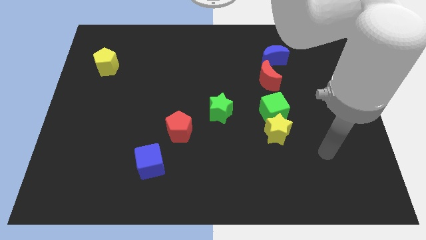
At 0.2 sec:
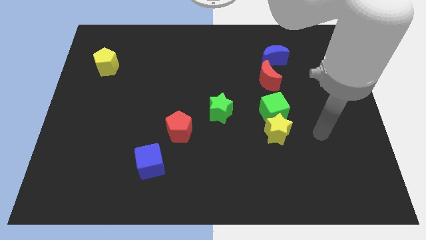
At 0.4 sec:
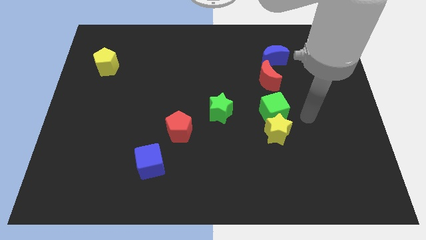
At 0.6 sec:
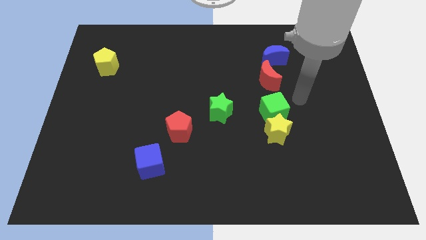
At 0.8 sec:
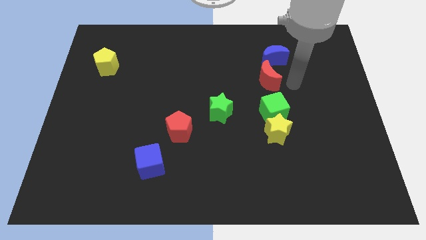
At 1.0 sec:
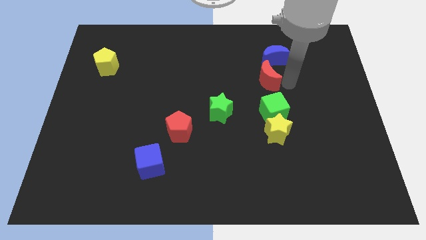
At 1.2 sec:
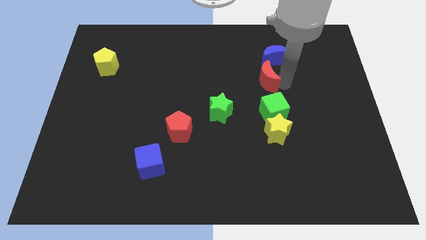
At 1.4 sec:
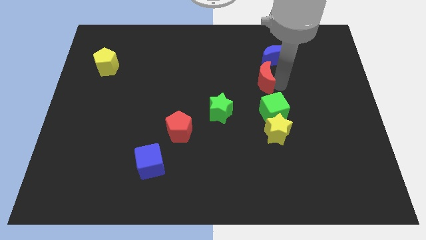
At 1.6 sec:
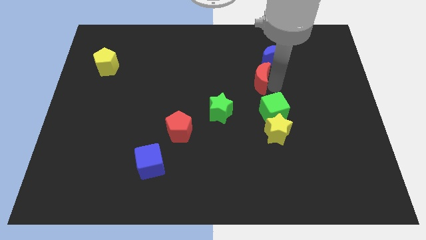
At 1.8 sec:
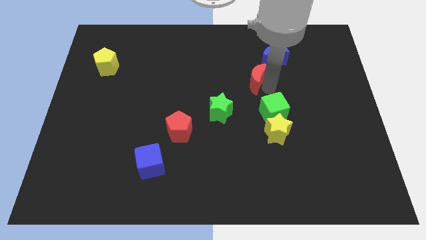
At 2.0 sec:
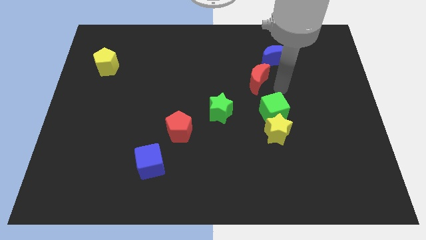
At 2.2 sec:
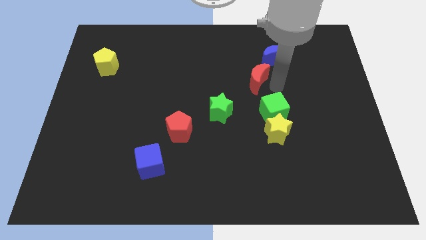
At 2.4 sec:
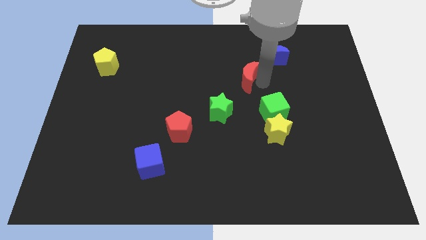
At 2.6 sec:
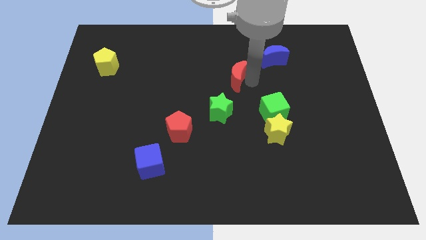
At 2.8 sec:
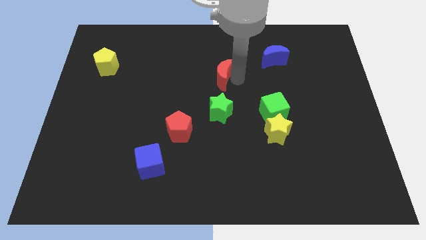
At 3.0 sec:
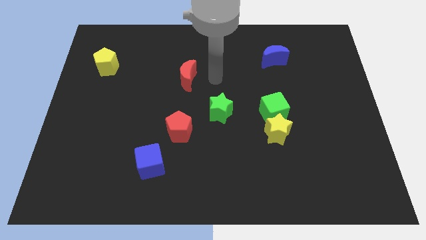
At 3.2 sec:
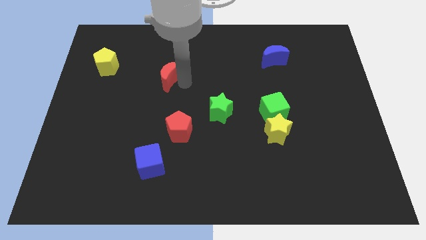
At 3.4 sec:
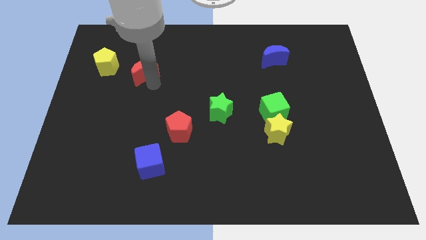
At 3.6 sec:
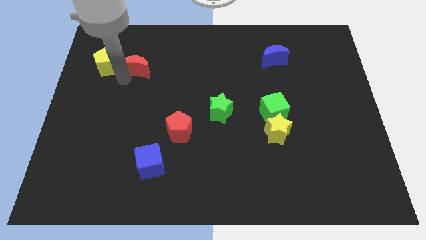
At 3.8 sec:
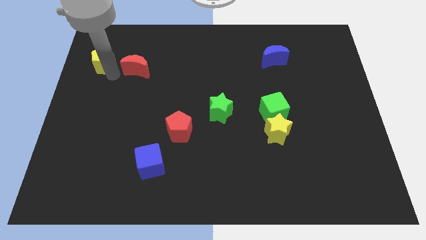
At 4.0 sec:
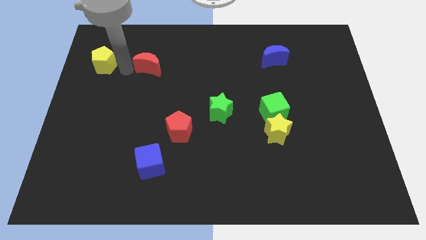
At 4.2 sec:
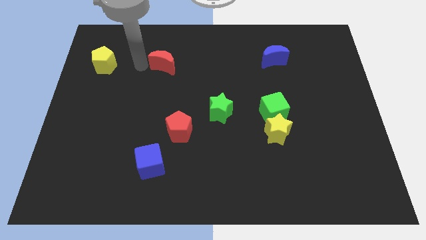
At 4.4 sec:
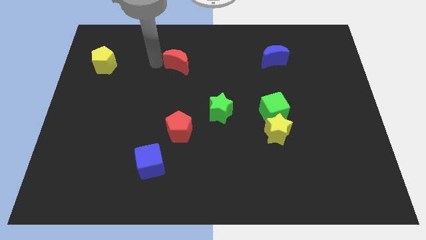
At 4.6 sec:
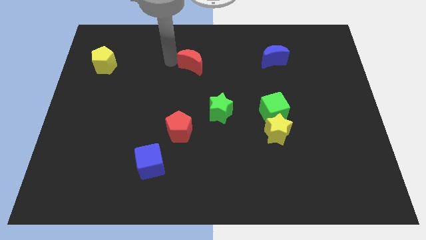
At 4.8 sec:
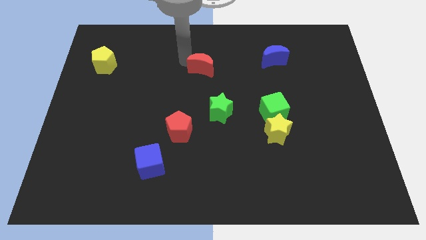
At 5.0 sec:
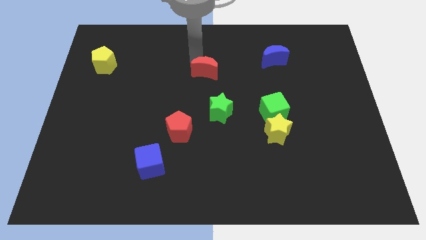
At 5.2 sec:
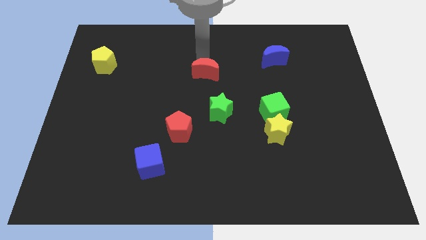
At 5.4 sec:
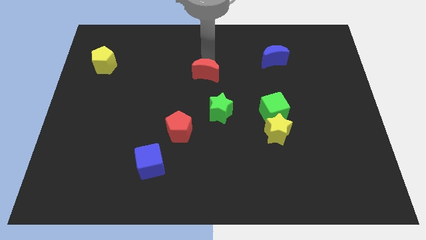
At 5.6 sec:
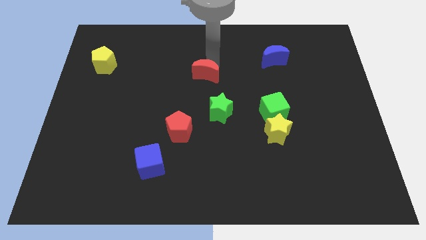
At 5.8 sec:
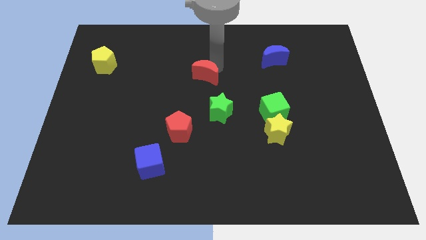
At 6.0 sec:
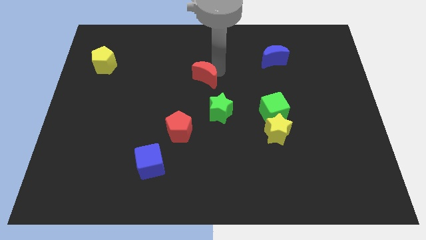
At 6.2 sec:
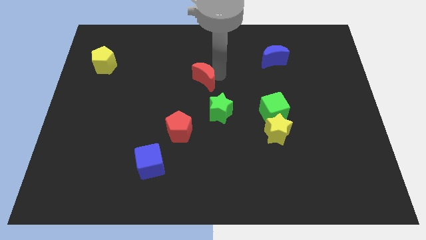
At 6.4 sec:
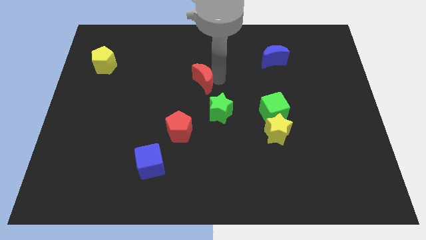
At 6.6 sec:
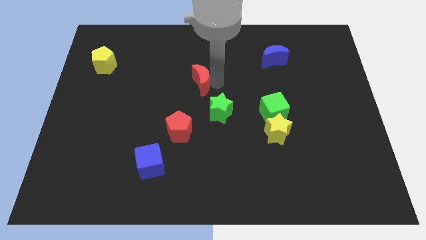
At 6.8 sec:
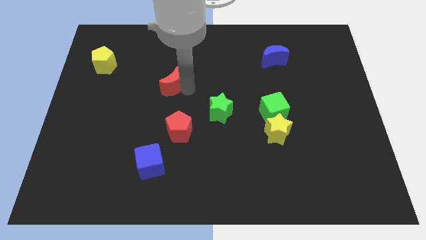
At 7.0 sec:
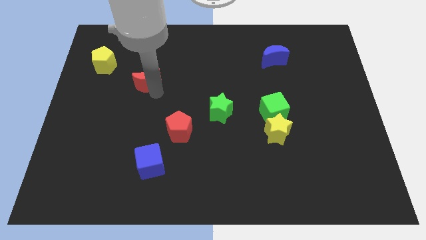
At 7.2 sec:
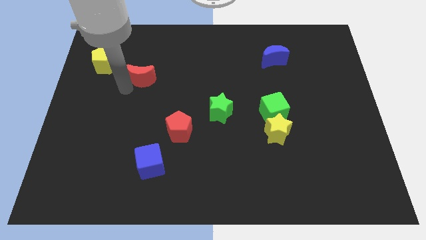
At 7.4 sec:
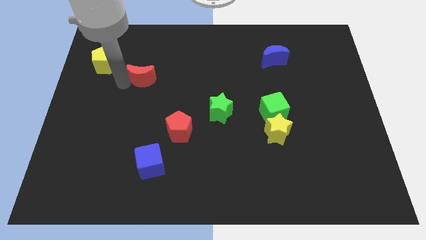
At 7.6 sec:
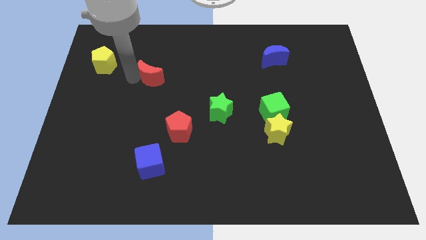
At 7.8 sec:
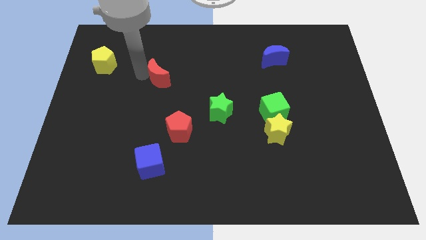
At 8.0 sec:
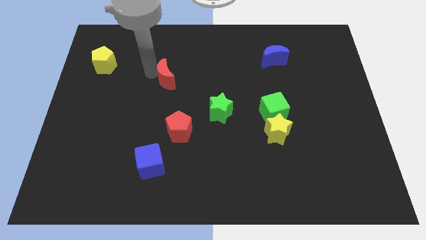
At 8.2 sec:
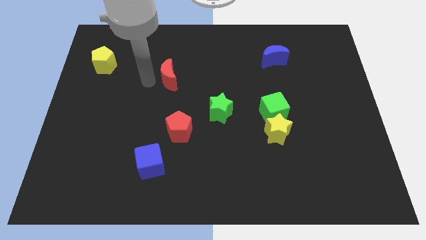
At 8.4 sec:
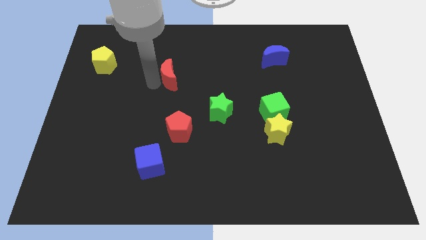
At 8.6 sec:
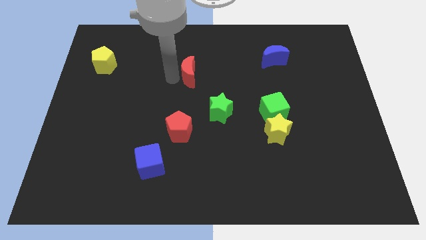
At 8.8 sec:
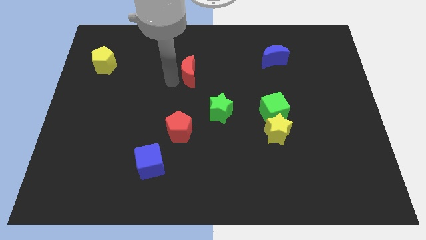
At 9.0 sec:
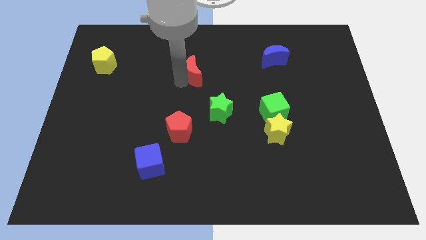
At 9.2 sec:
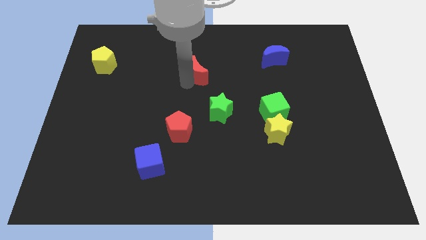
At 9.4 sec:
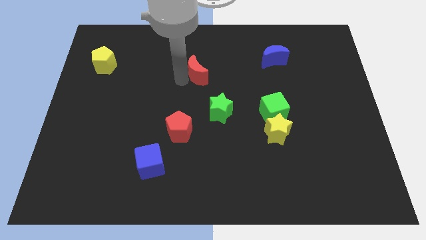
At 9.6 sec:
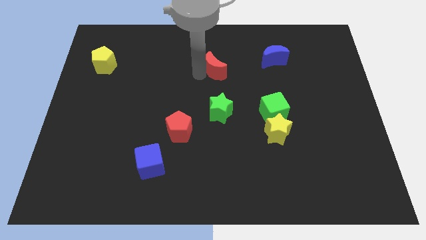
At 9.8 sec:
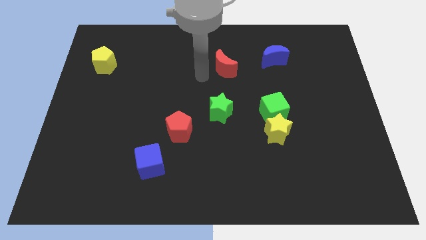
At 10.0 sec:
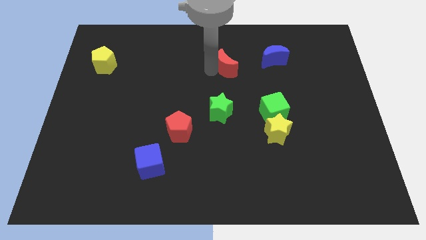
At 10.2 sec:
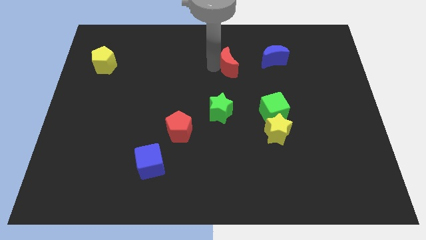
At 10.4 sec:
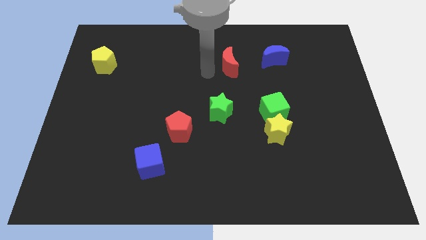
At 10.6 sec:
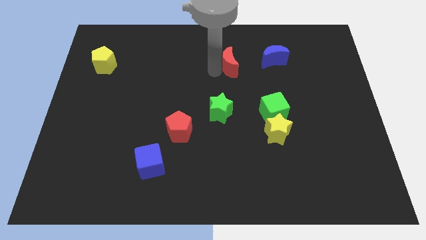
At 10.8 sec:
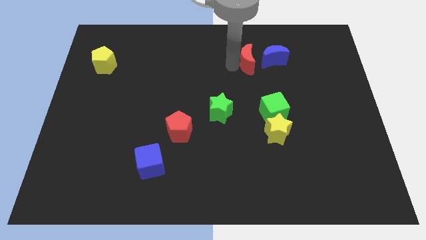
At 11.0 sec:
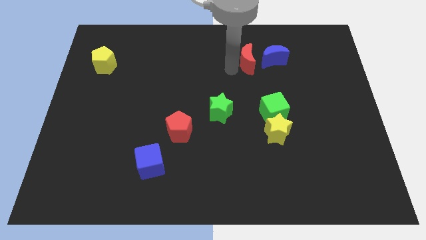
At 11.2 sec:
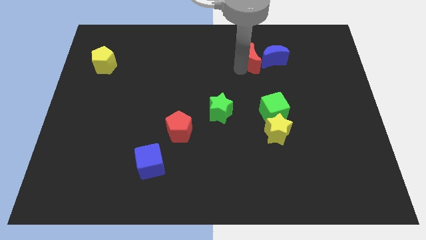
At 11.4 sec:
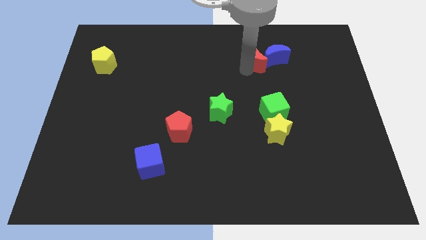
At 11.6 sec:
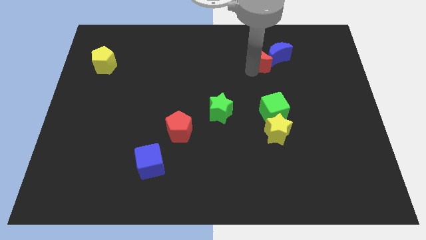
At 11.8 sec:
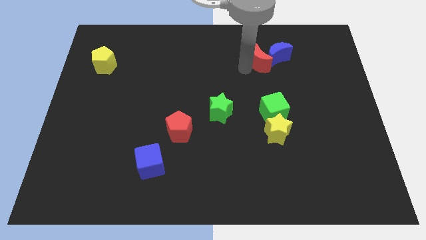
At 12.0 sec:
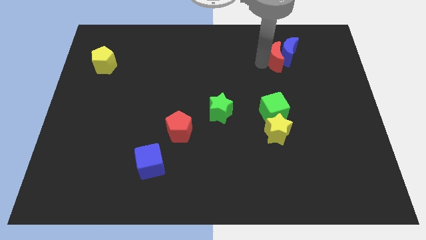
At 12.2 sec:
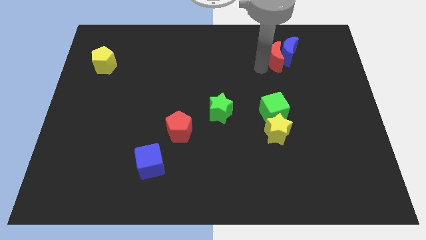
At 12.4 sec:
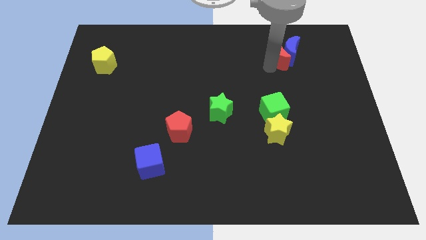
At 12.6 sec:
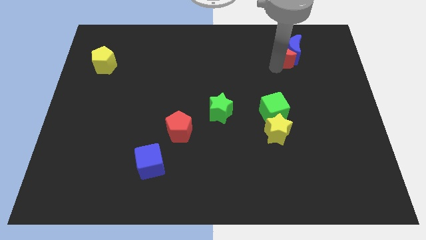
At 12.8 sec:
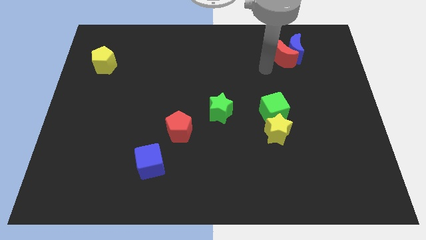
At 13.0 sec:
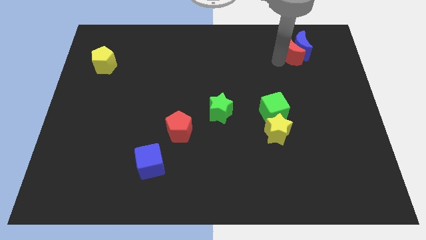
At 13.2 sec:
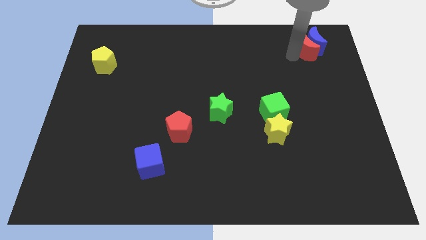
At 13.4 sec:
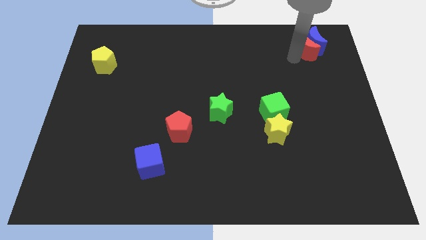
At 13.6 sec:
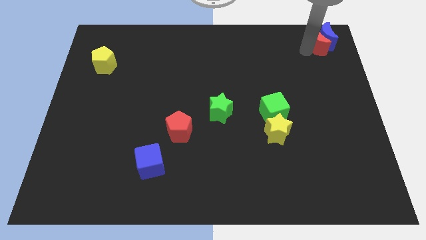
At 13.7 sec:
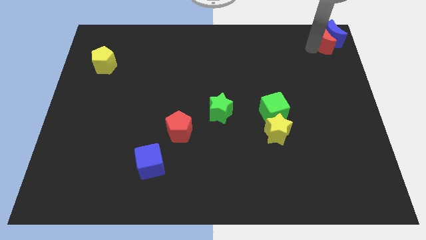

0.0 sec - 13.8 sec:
push the red moon to the top right corner

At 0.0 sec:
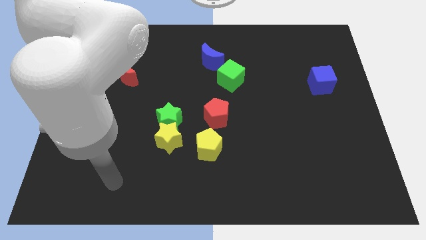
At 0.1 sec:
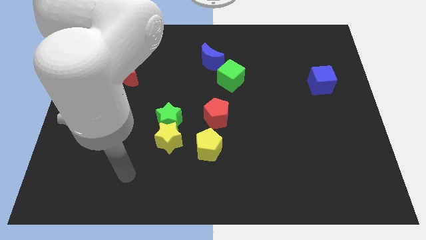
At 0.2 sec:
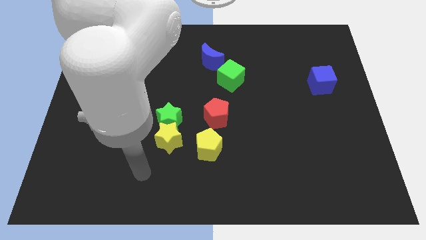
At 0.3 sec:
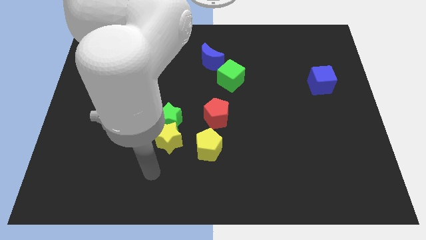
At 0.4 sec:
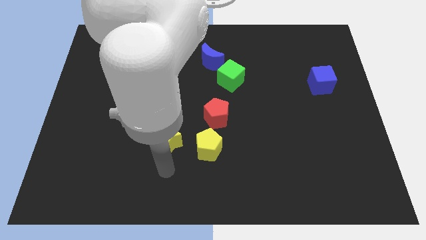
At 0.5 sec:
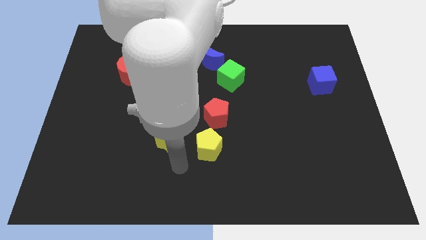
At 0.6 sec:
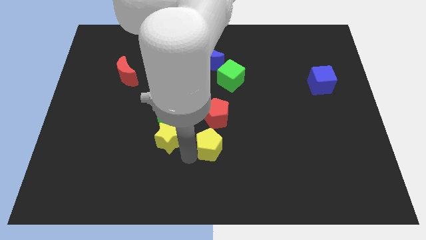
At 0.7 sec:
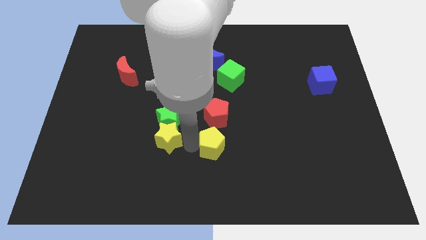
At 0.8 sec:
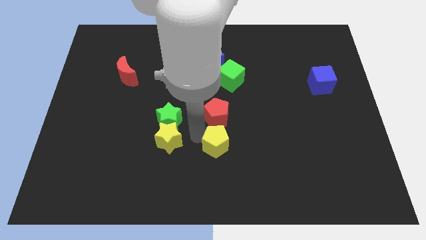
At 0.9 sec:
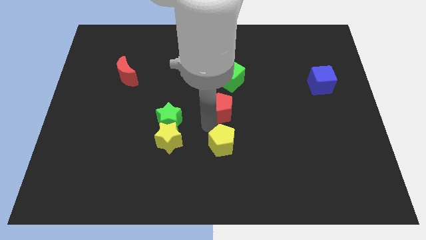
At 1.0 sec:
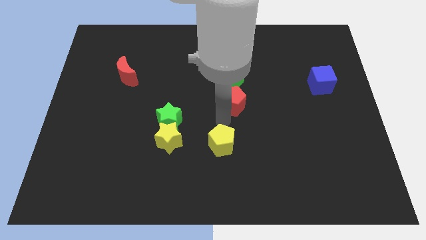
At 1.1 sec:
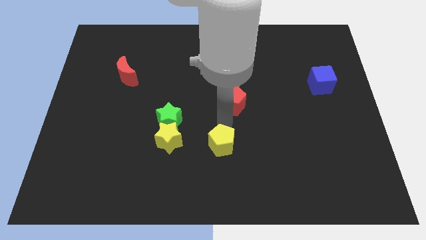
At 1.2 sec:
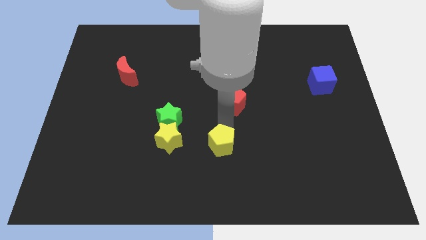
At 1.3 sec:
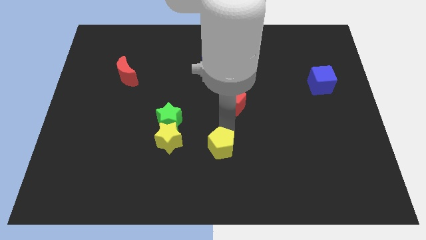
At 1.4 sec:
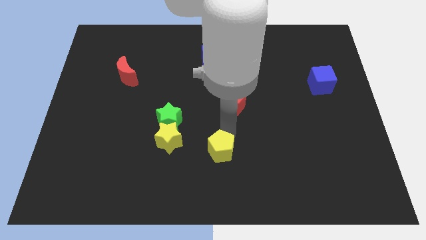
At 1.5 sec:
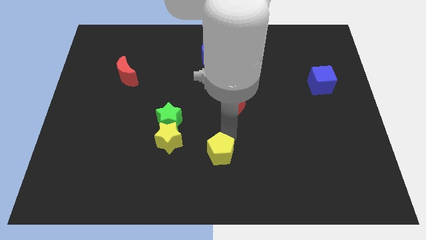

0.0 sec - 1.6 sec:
slide the yellow pentagon to the bottom
